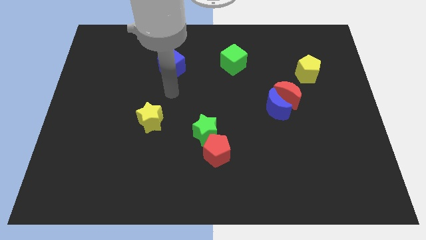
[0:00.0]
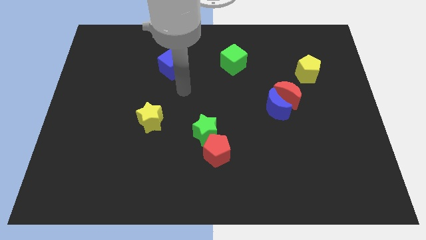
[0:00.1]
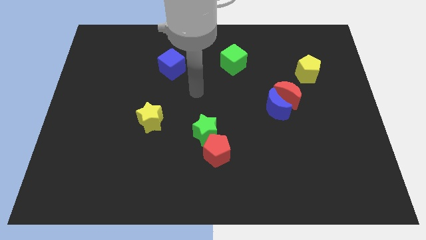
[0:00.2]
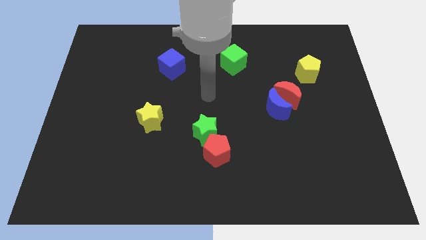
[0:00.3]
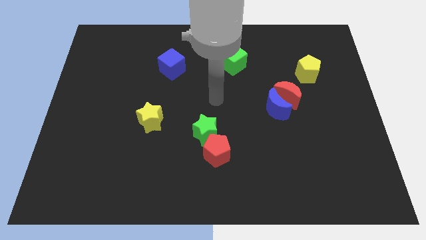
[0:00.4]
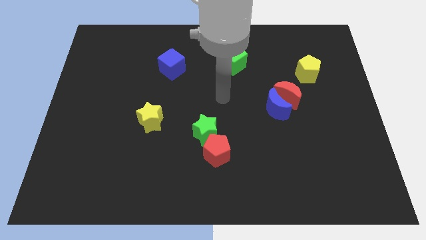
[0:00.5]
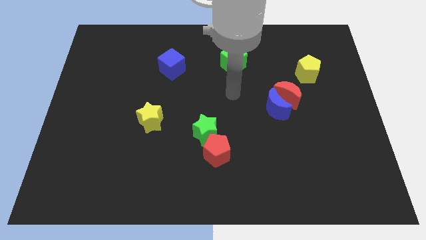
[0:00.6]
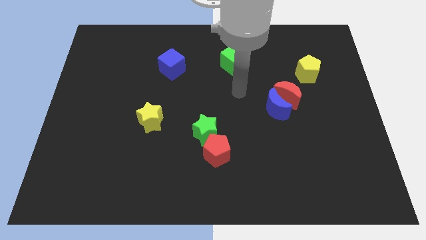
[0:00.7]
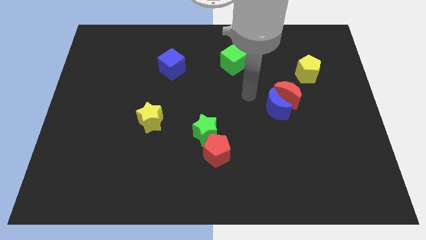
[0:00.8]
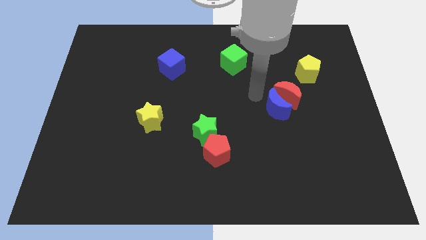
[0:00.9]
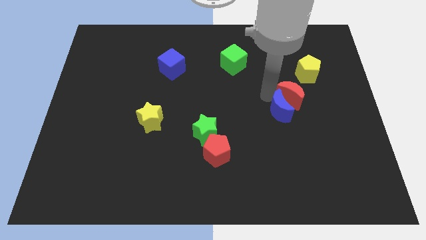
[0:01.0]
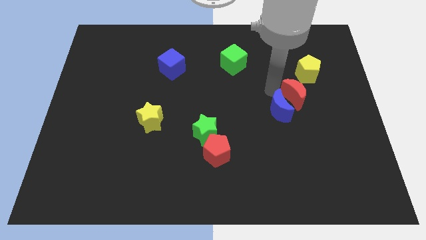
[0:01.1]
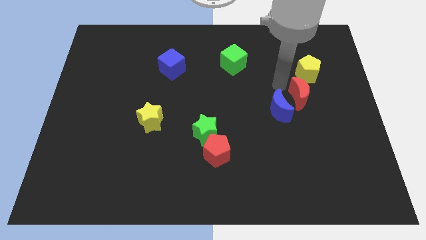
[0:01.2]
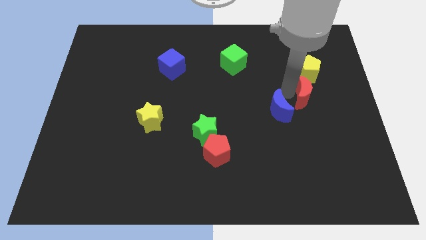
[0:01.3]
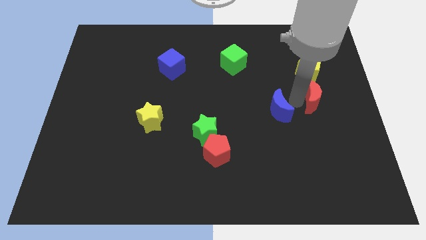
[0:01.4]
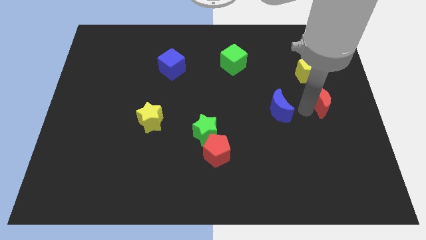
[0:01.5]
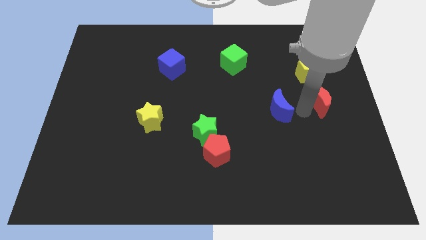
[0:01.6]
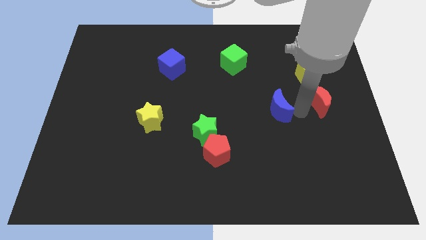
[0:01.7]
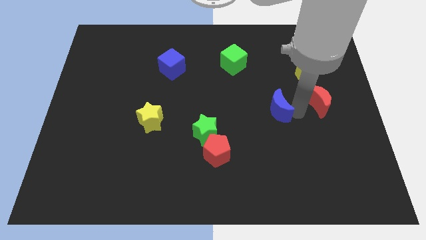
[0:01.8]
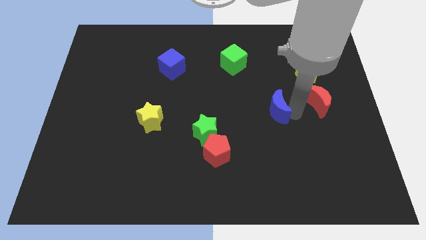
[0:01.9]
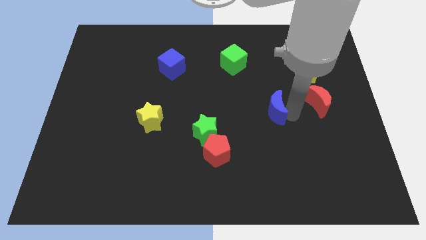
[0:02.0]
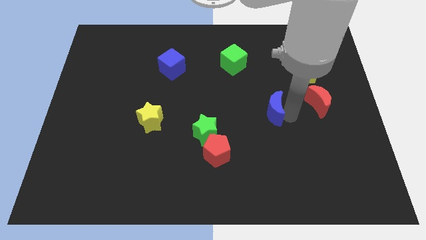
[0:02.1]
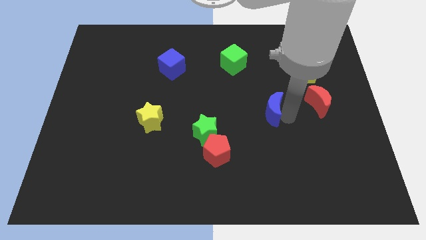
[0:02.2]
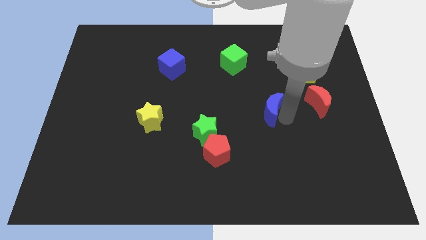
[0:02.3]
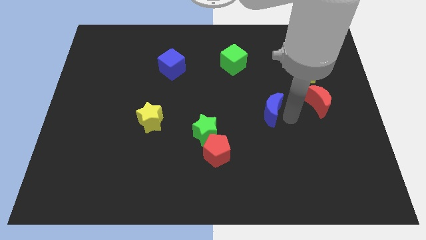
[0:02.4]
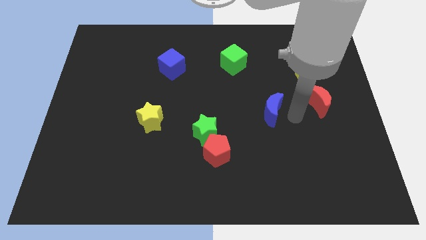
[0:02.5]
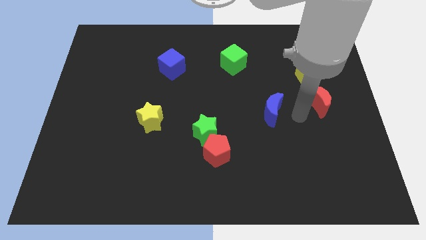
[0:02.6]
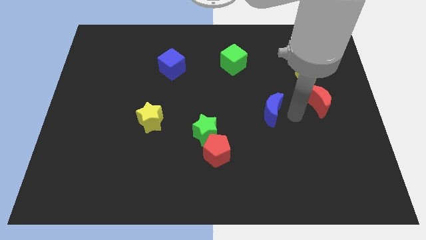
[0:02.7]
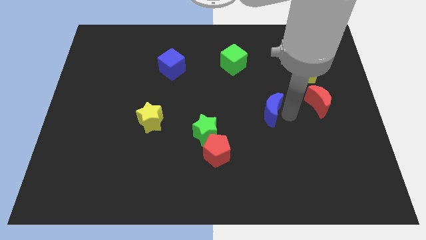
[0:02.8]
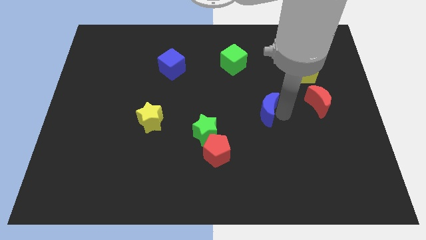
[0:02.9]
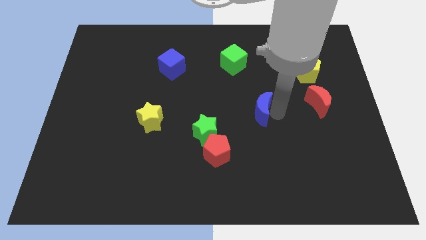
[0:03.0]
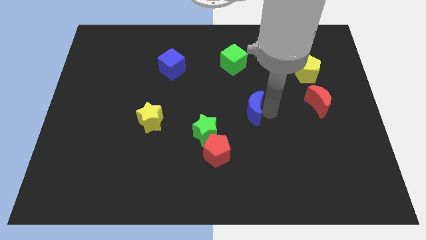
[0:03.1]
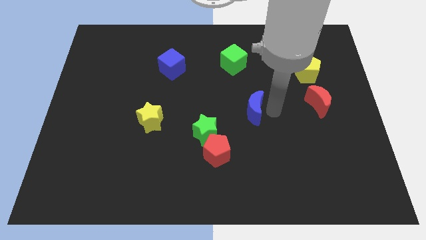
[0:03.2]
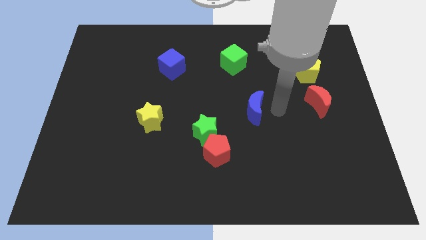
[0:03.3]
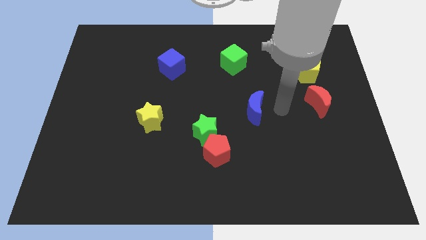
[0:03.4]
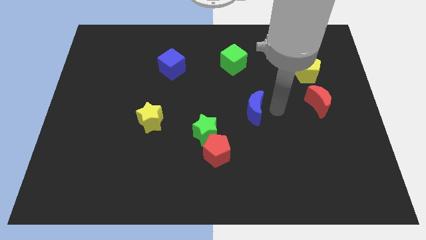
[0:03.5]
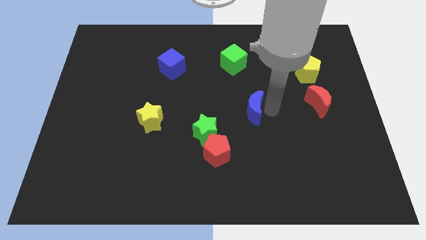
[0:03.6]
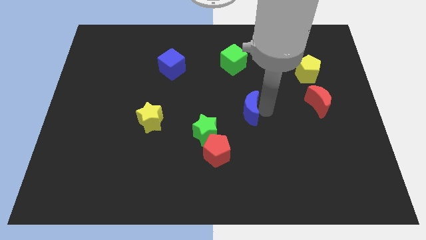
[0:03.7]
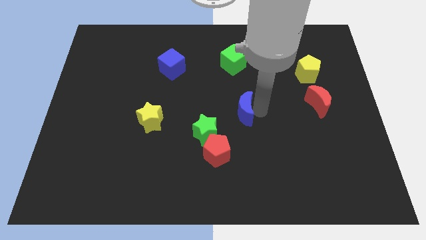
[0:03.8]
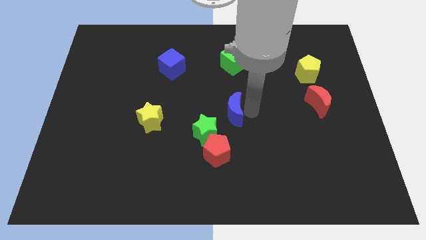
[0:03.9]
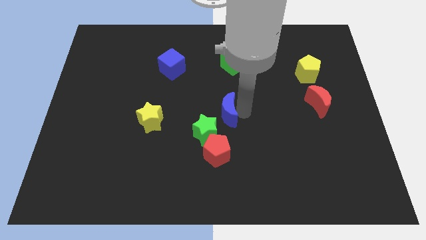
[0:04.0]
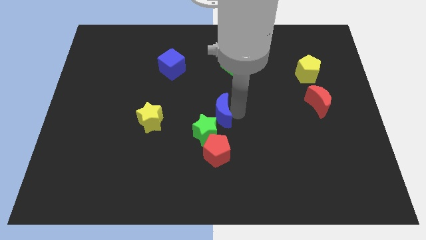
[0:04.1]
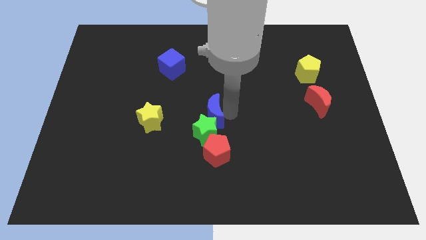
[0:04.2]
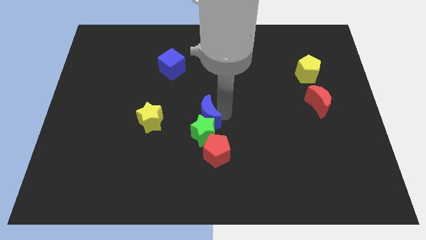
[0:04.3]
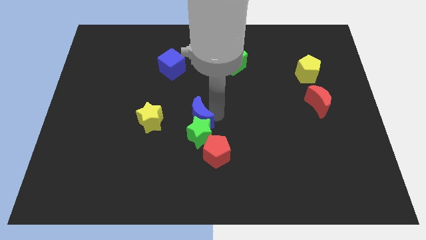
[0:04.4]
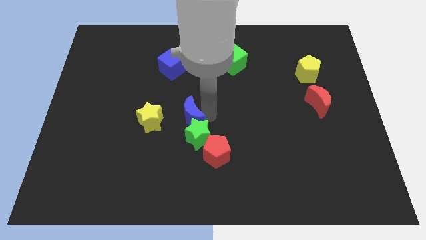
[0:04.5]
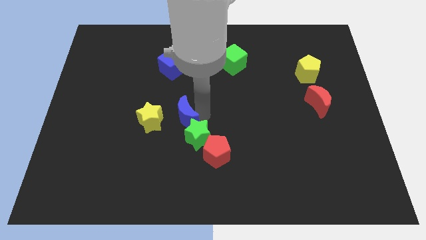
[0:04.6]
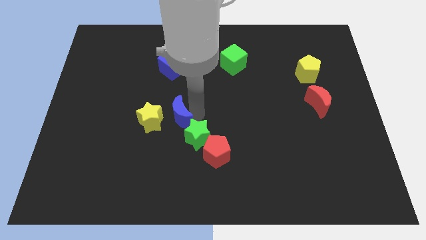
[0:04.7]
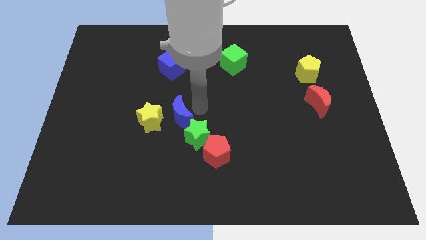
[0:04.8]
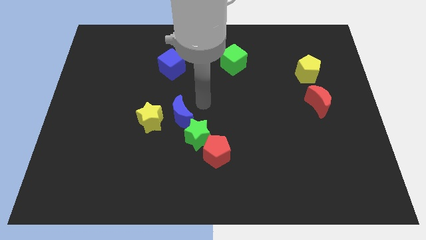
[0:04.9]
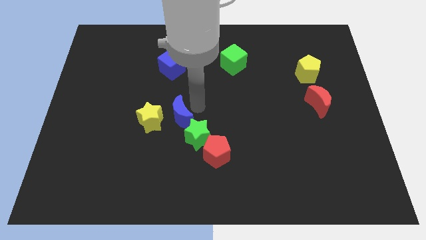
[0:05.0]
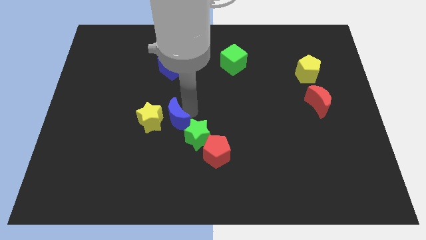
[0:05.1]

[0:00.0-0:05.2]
put the blue moon to the left side of the green star

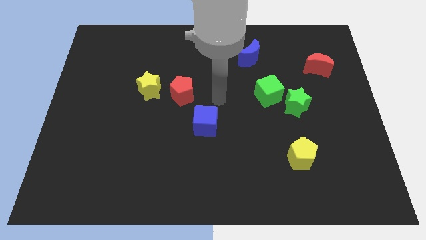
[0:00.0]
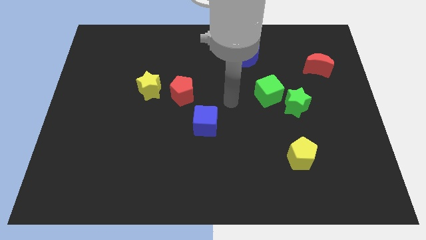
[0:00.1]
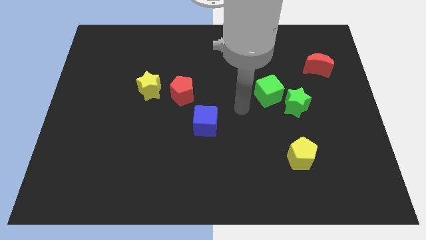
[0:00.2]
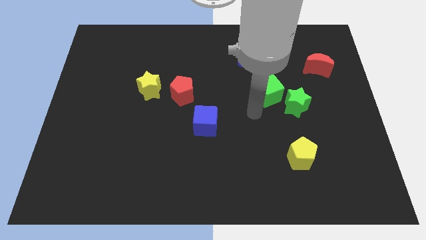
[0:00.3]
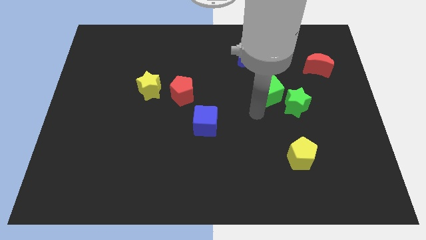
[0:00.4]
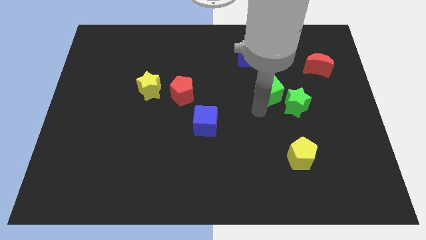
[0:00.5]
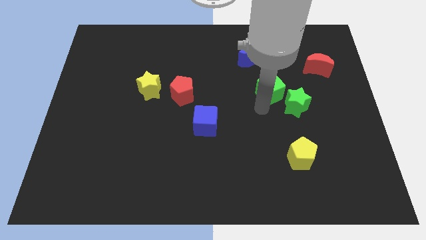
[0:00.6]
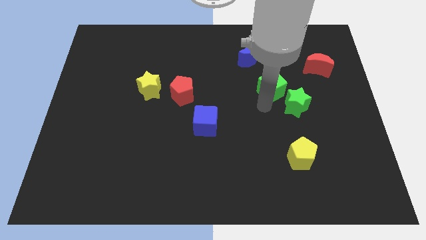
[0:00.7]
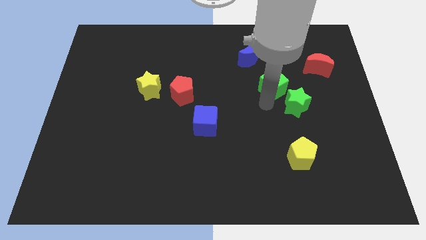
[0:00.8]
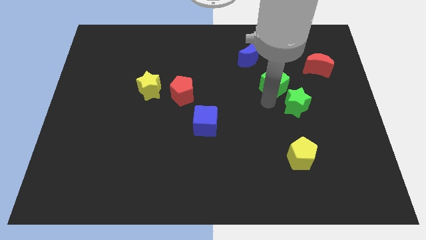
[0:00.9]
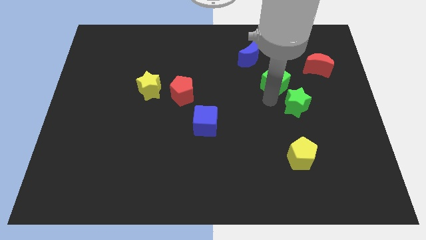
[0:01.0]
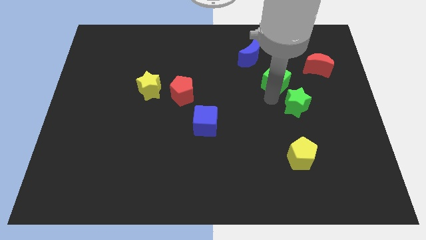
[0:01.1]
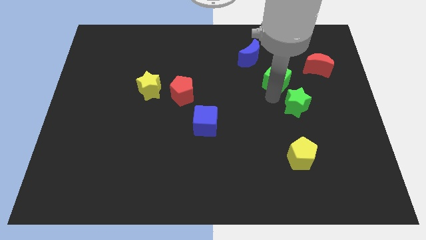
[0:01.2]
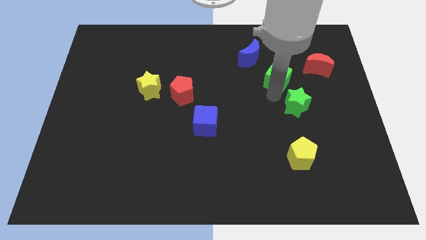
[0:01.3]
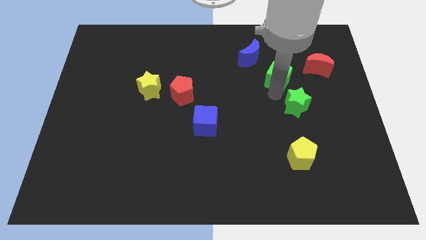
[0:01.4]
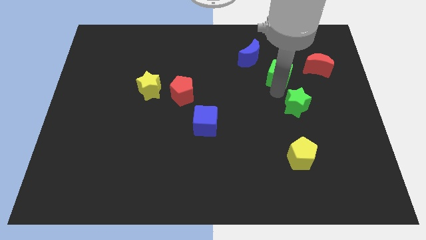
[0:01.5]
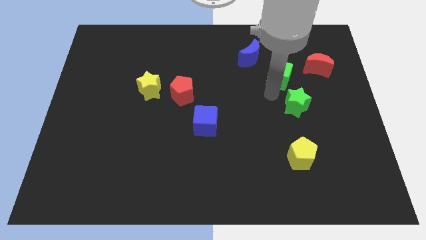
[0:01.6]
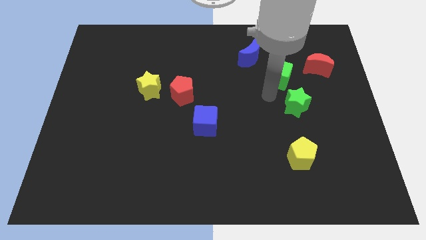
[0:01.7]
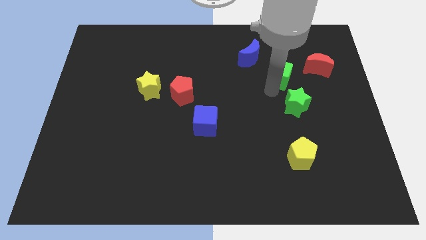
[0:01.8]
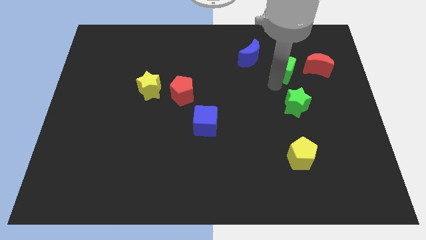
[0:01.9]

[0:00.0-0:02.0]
push the green cube right of the blue moon
